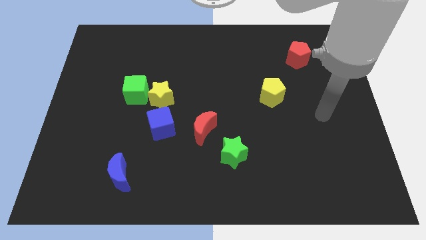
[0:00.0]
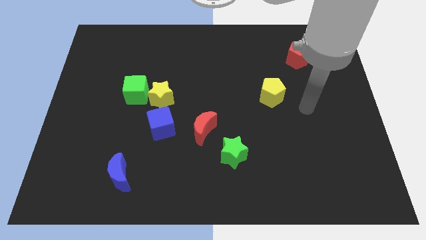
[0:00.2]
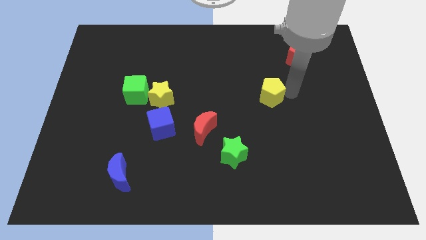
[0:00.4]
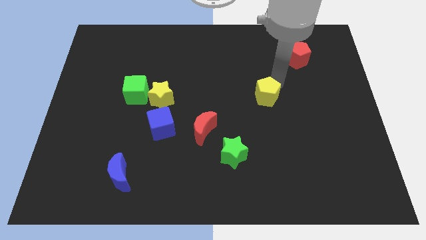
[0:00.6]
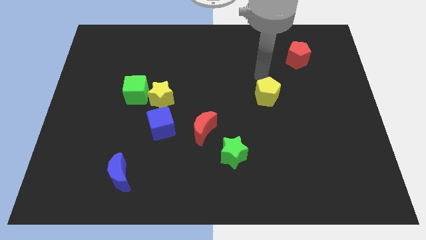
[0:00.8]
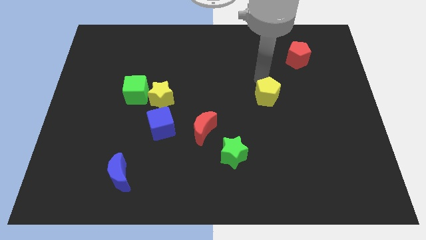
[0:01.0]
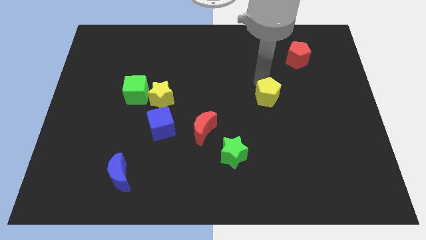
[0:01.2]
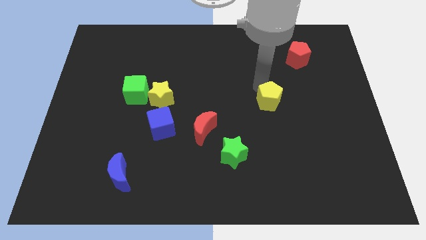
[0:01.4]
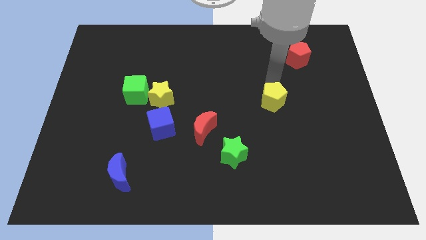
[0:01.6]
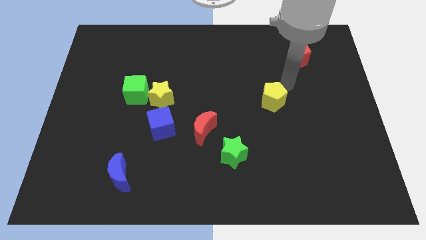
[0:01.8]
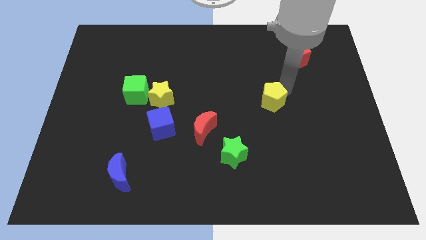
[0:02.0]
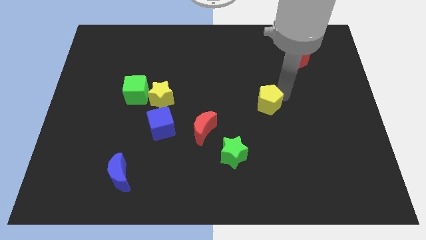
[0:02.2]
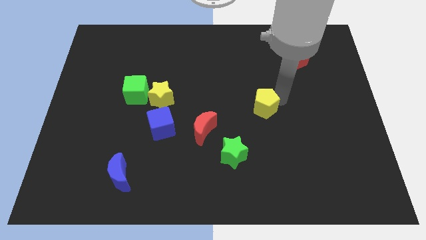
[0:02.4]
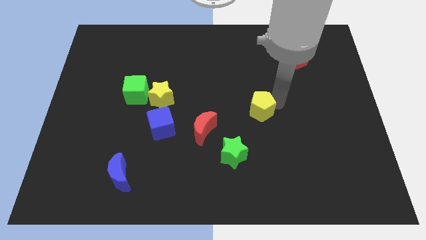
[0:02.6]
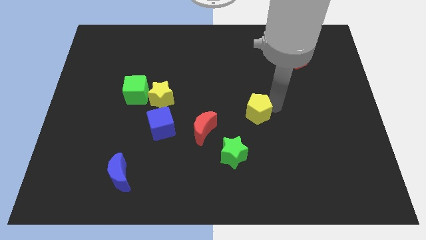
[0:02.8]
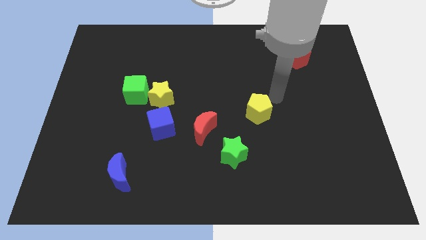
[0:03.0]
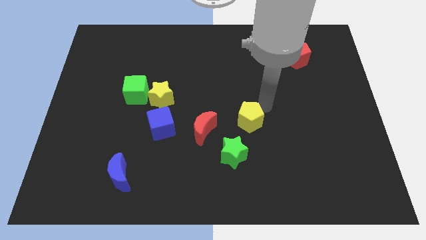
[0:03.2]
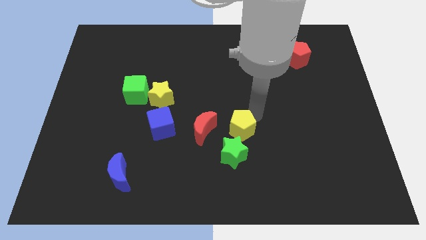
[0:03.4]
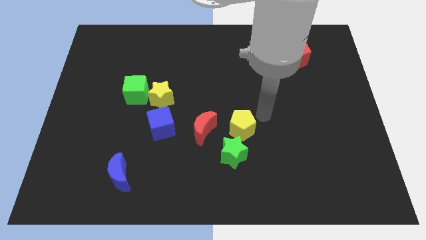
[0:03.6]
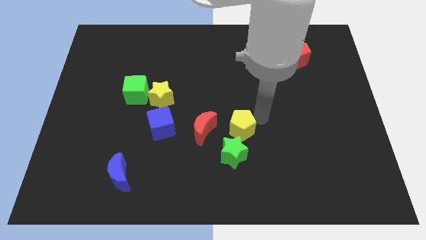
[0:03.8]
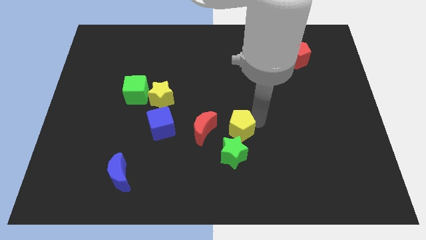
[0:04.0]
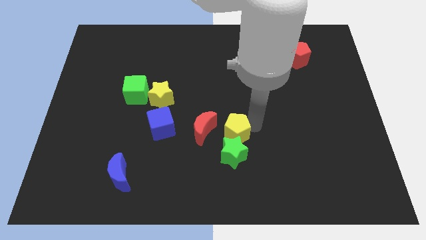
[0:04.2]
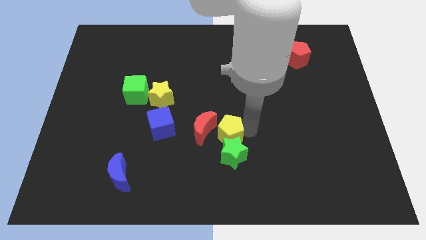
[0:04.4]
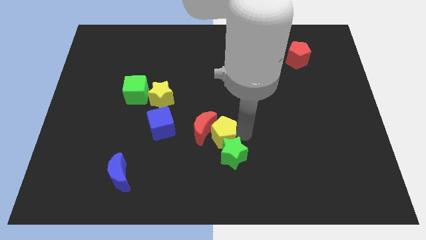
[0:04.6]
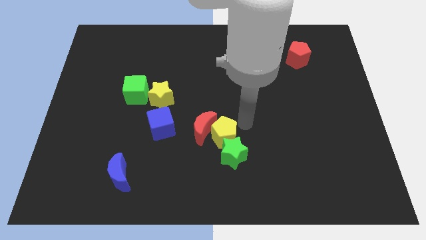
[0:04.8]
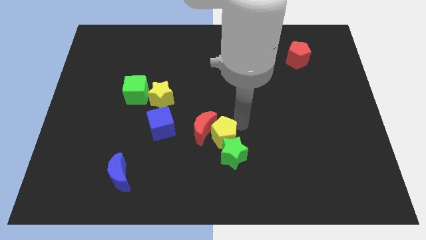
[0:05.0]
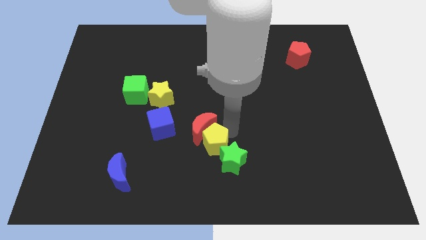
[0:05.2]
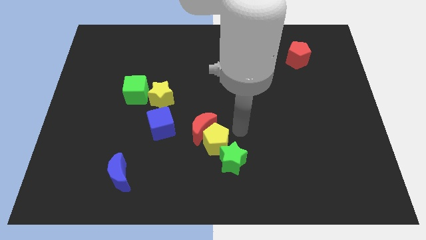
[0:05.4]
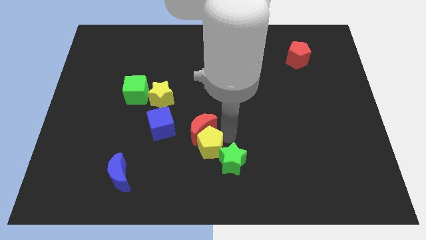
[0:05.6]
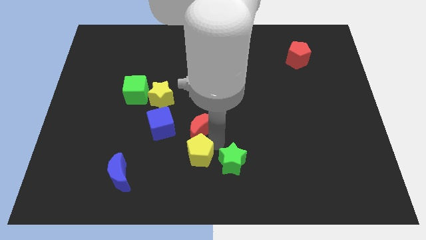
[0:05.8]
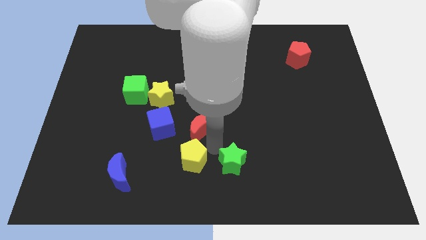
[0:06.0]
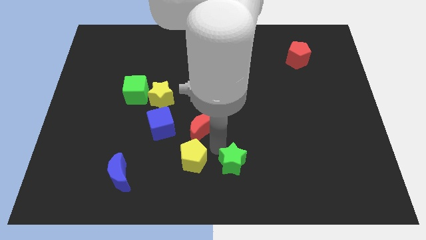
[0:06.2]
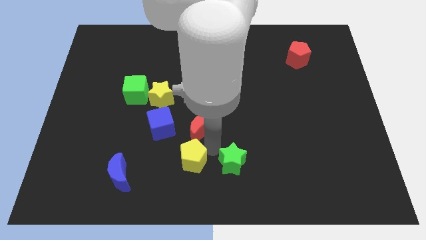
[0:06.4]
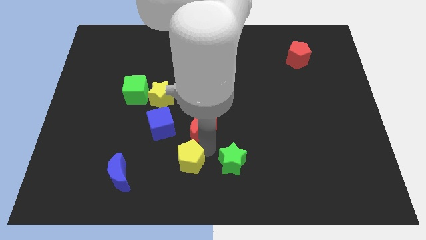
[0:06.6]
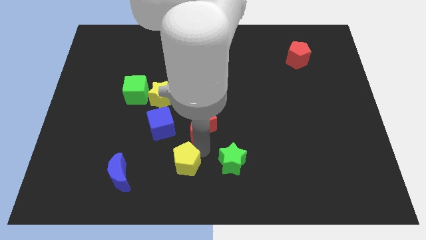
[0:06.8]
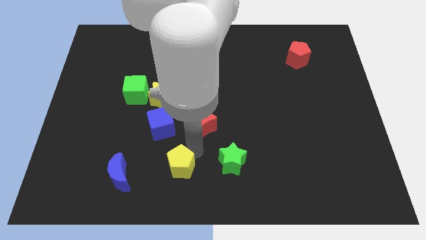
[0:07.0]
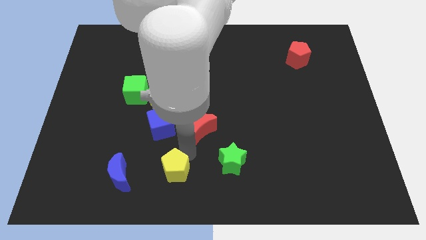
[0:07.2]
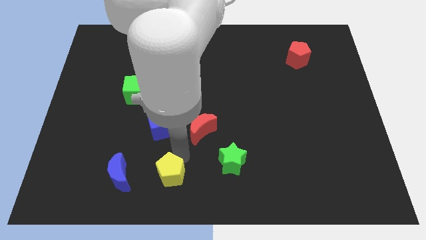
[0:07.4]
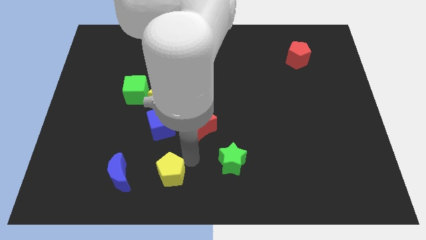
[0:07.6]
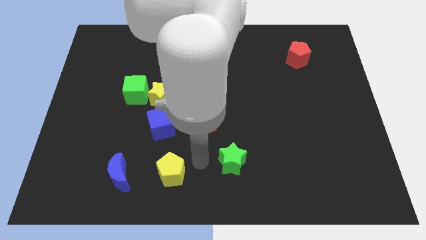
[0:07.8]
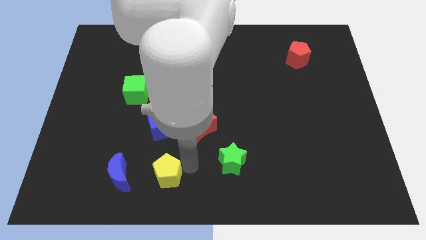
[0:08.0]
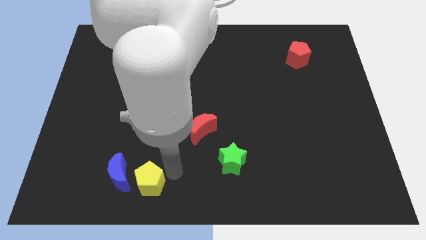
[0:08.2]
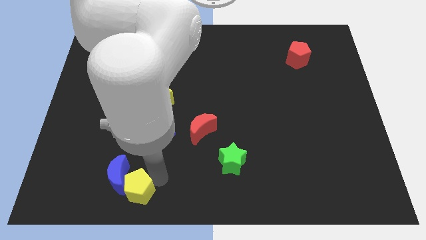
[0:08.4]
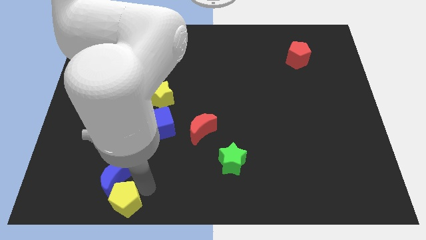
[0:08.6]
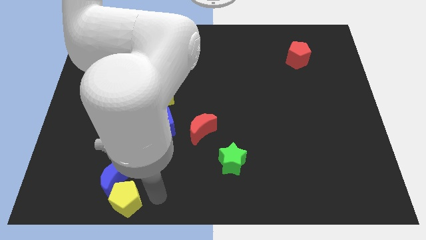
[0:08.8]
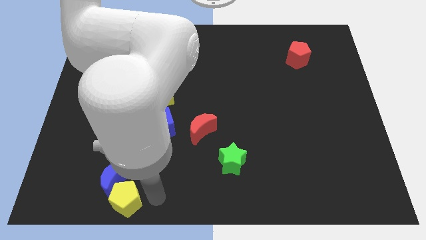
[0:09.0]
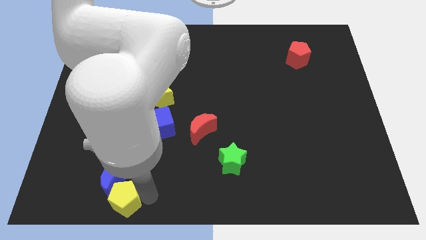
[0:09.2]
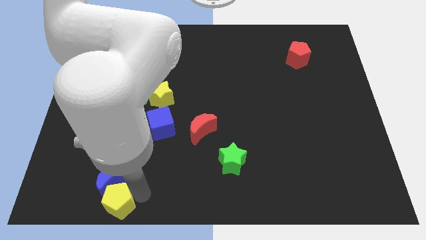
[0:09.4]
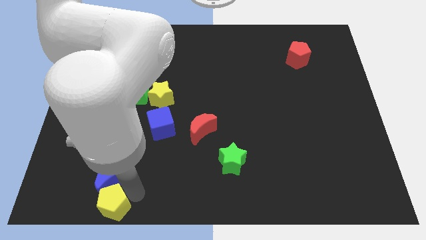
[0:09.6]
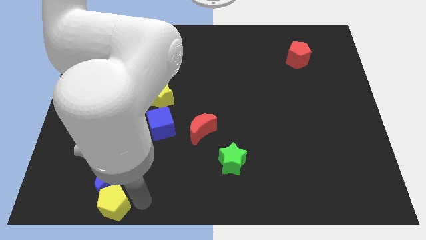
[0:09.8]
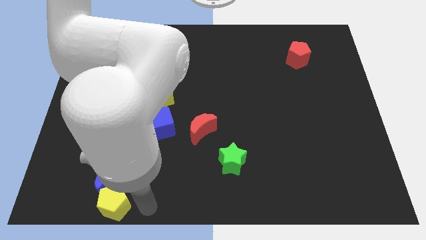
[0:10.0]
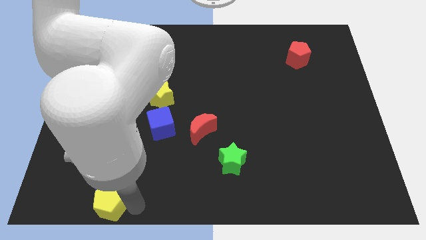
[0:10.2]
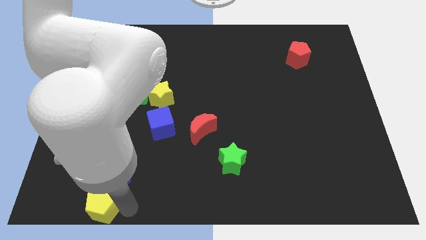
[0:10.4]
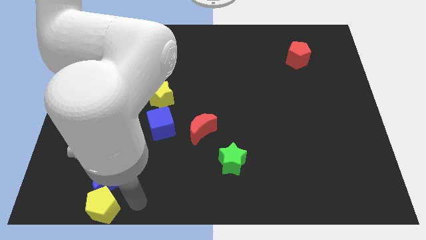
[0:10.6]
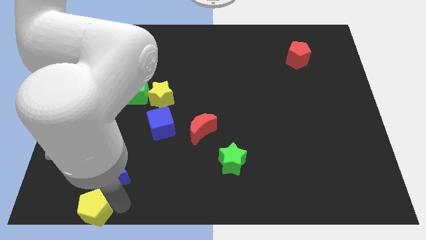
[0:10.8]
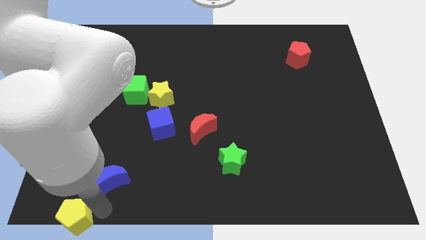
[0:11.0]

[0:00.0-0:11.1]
move the yellow pentagon to the lower left corner
